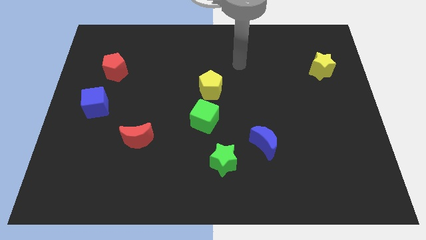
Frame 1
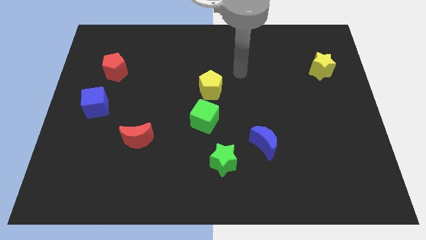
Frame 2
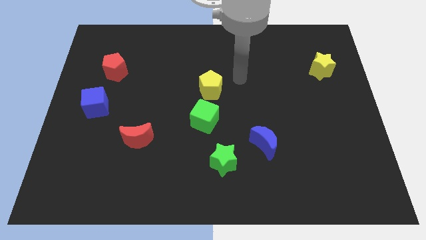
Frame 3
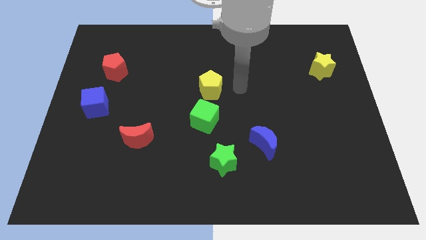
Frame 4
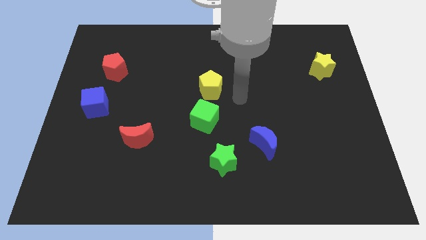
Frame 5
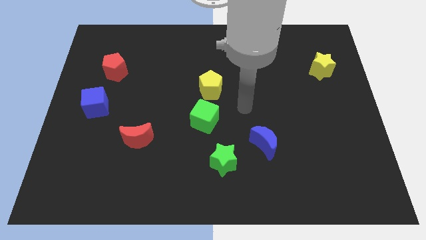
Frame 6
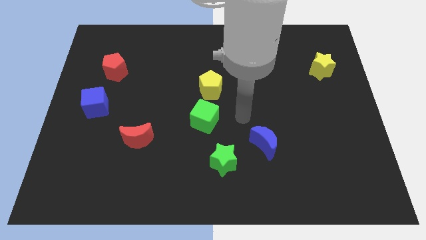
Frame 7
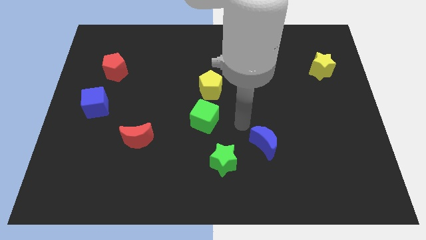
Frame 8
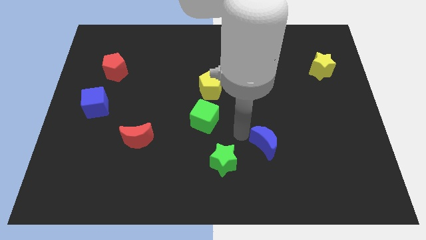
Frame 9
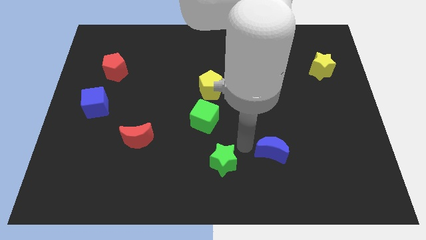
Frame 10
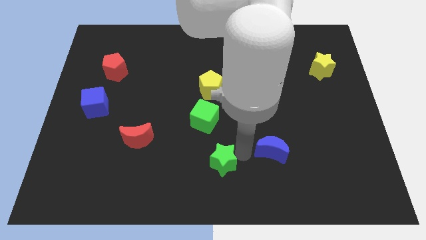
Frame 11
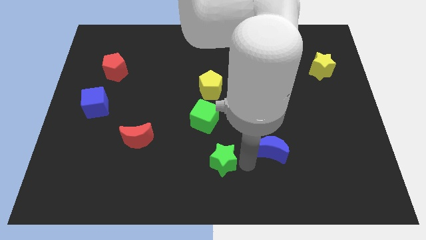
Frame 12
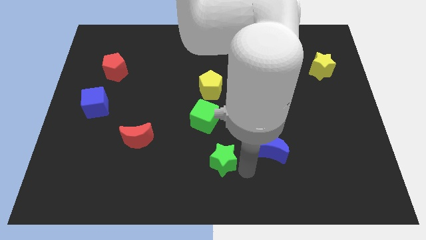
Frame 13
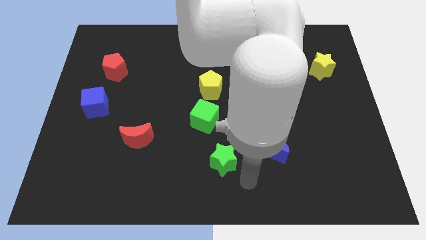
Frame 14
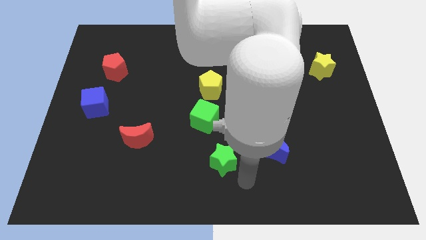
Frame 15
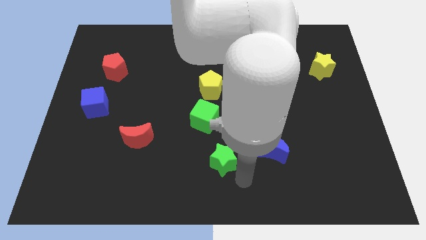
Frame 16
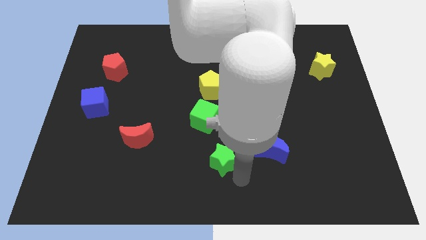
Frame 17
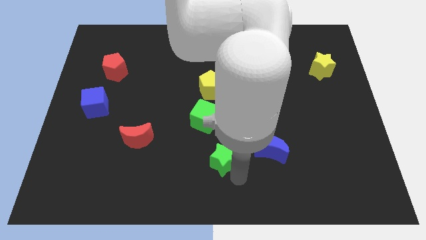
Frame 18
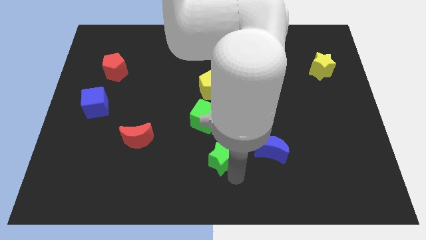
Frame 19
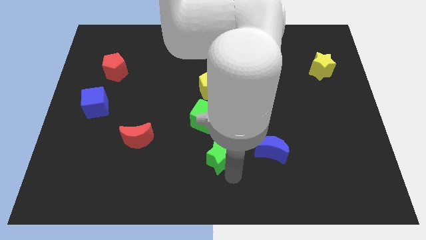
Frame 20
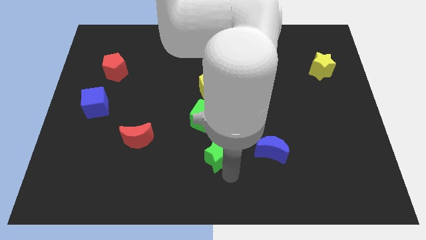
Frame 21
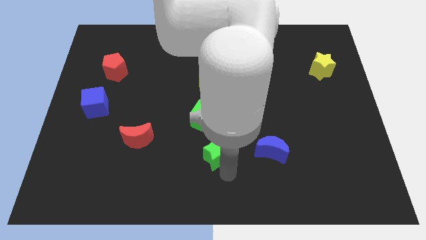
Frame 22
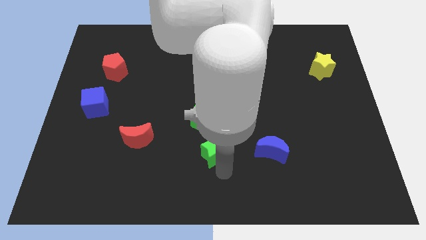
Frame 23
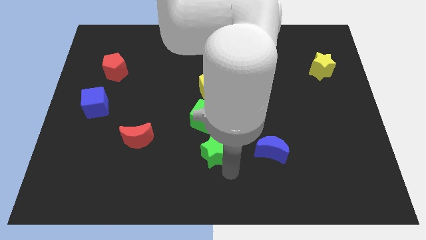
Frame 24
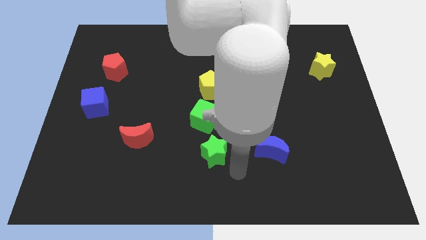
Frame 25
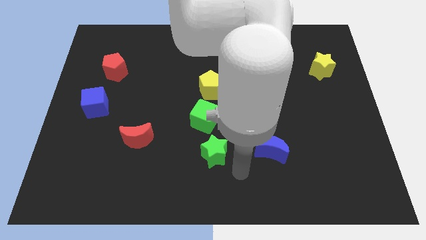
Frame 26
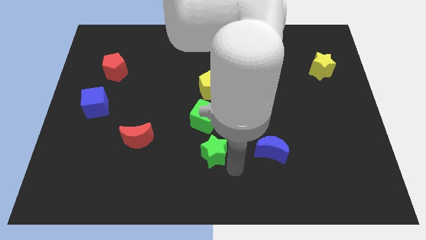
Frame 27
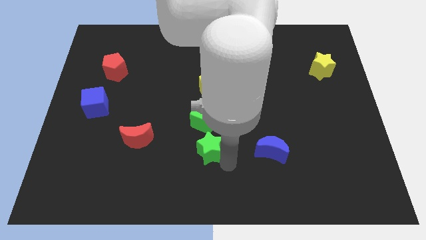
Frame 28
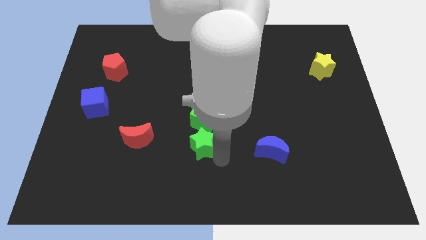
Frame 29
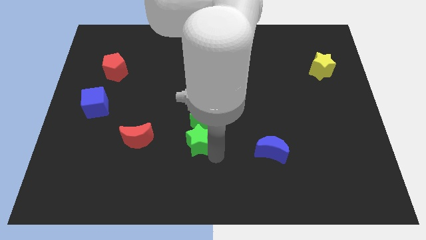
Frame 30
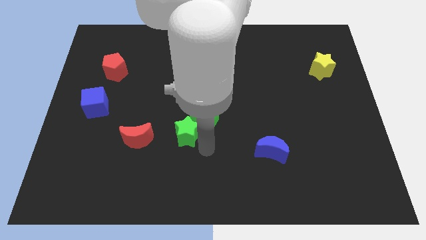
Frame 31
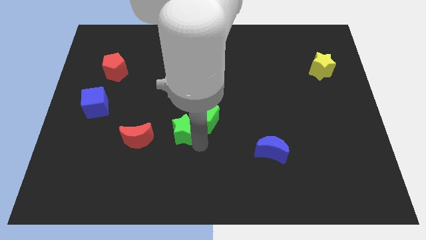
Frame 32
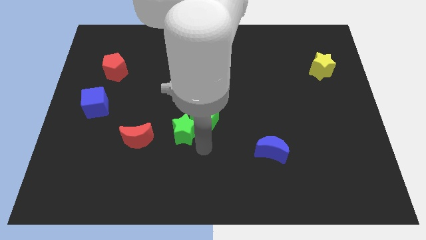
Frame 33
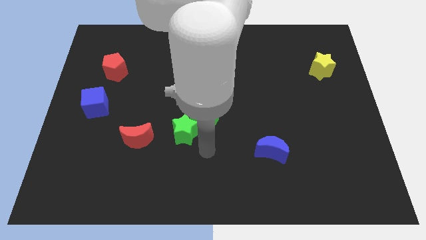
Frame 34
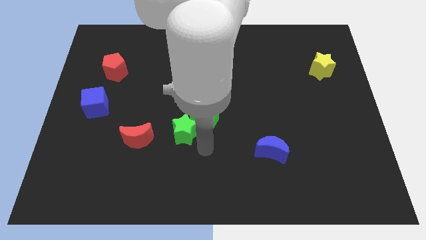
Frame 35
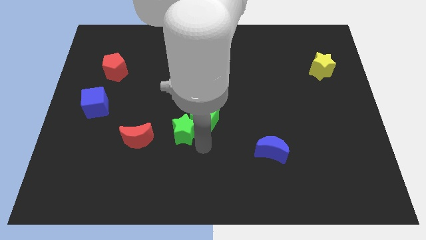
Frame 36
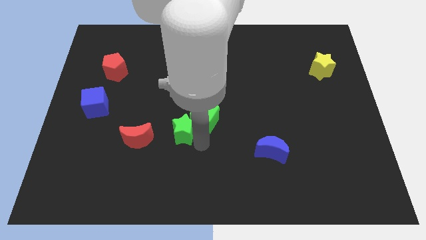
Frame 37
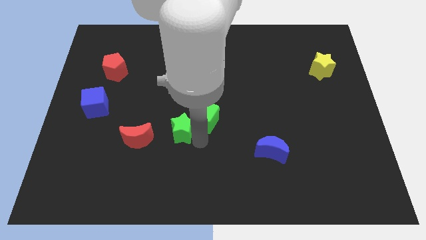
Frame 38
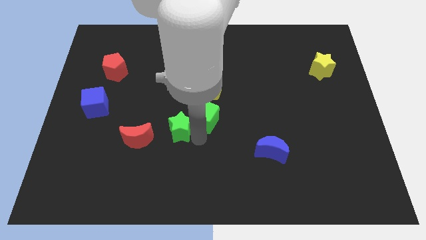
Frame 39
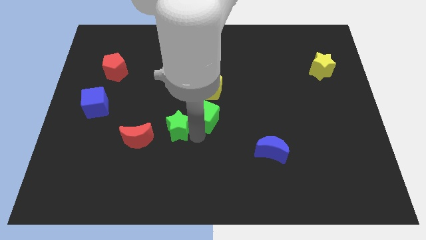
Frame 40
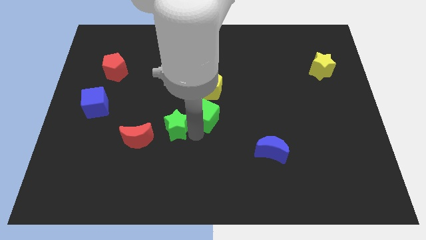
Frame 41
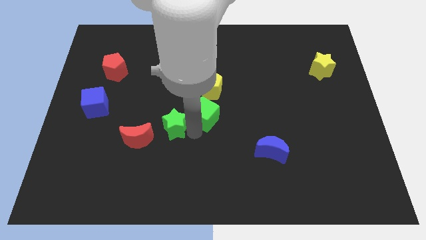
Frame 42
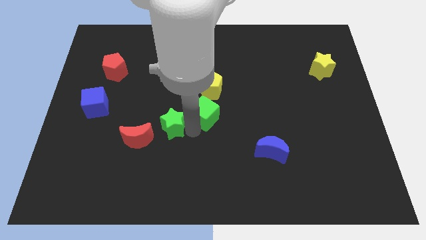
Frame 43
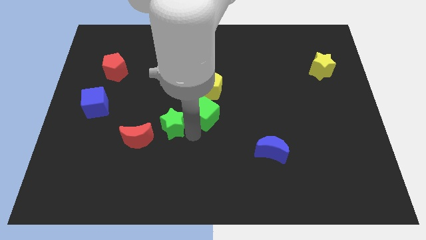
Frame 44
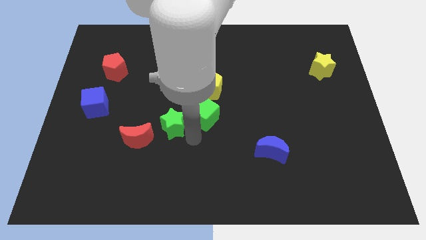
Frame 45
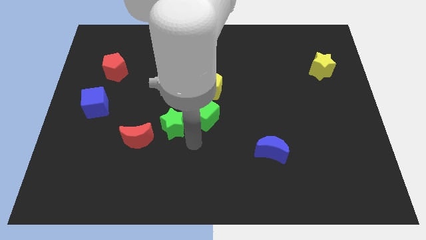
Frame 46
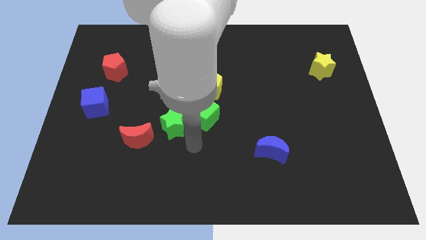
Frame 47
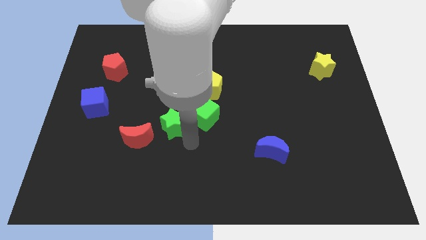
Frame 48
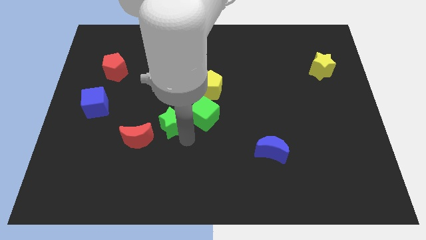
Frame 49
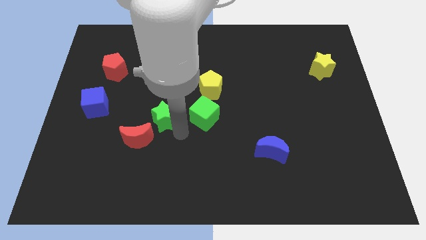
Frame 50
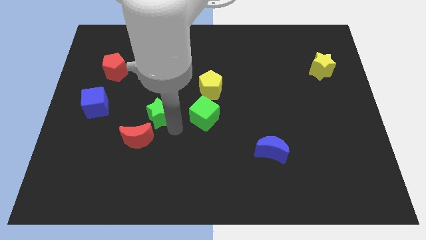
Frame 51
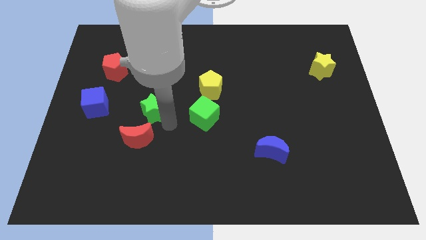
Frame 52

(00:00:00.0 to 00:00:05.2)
push the green star up and then left

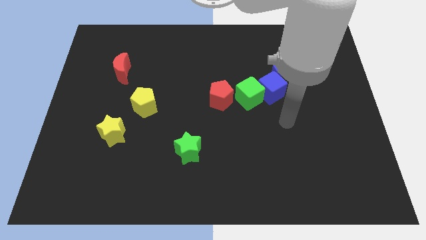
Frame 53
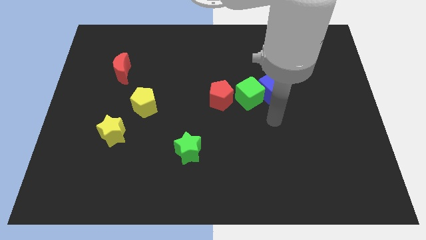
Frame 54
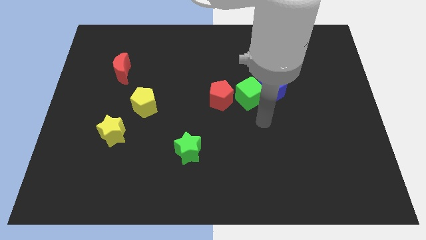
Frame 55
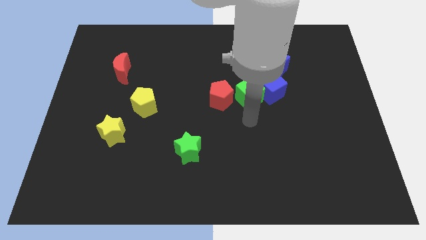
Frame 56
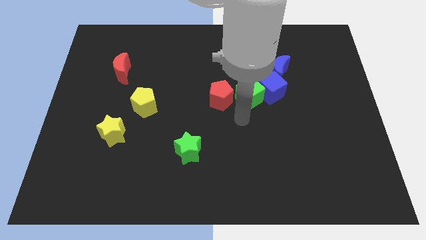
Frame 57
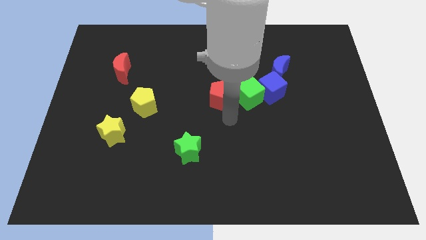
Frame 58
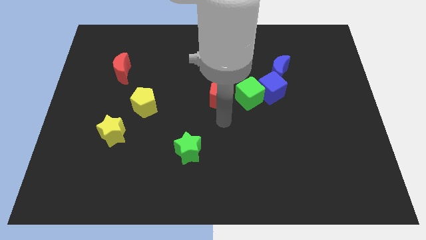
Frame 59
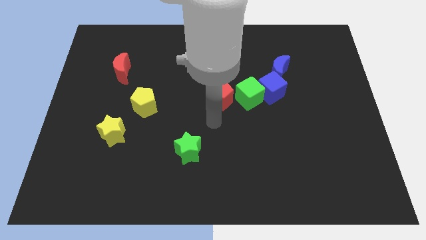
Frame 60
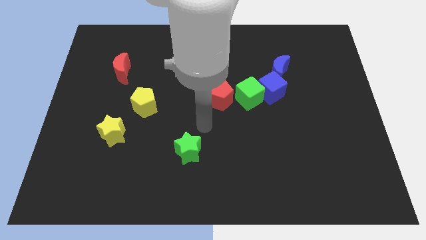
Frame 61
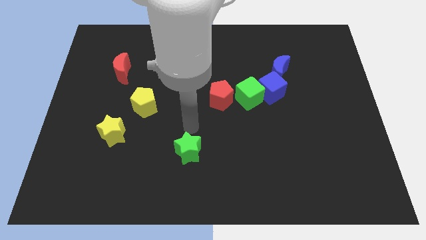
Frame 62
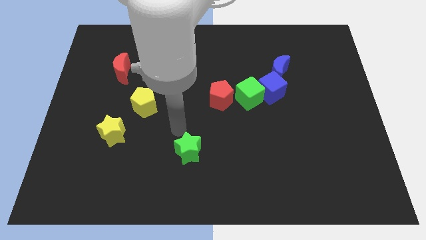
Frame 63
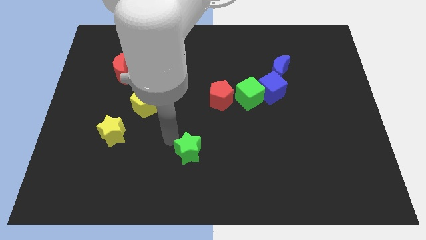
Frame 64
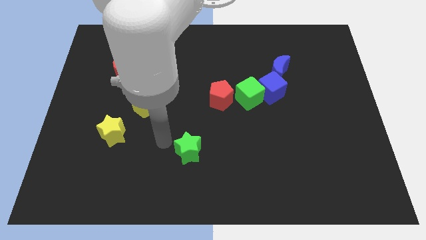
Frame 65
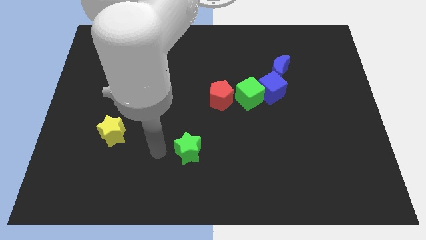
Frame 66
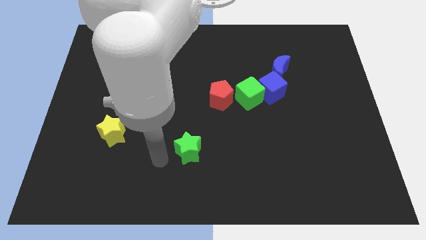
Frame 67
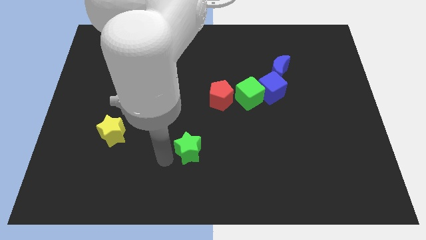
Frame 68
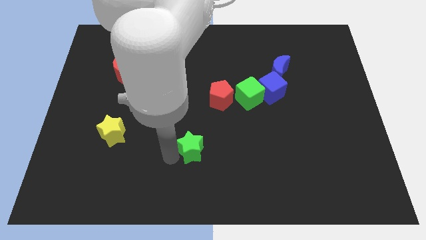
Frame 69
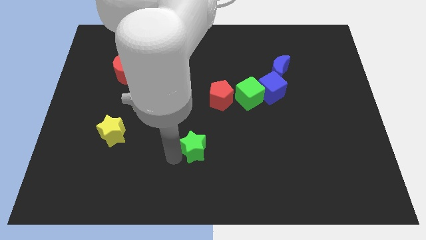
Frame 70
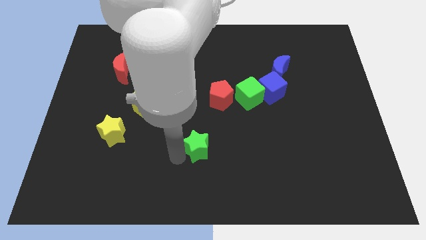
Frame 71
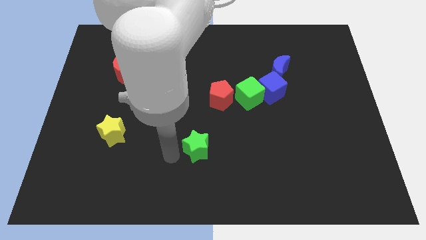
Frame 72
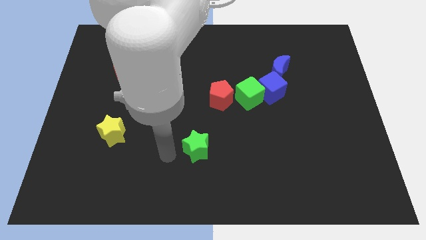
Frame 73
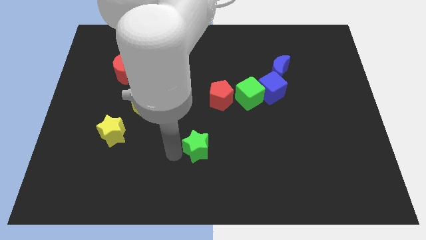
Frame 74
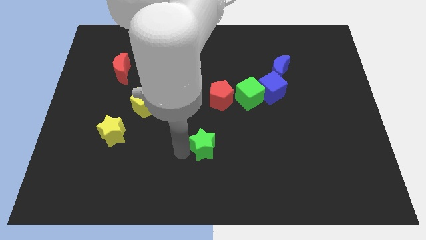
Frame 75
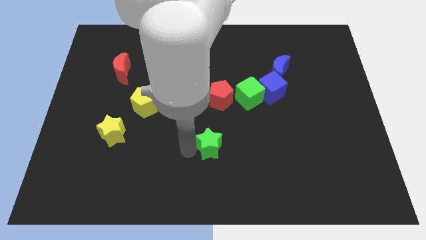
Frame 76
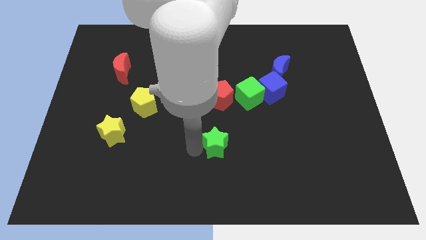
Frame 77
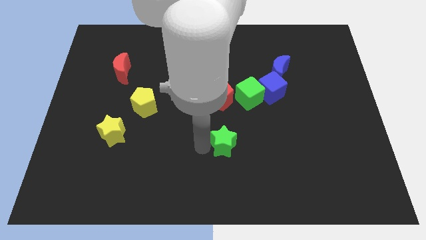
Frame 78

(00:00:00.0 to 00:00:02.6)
move the green star a bit to the right

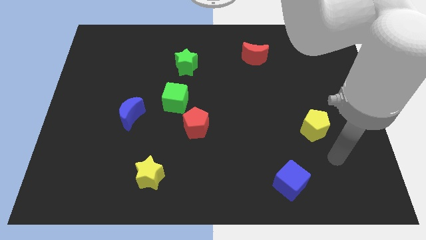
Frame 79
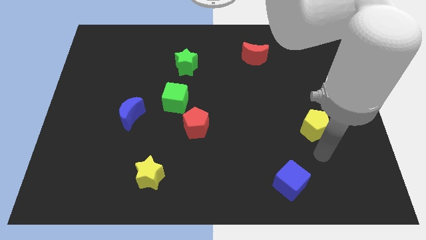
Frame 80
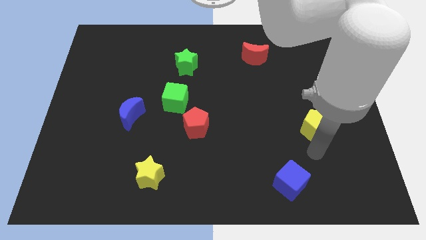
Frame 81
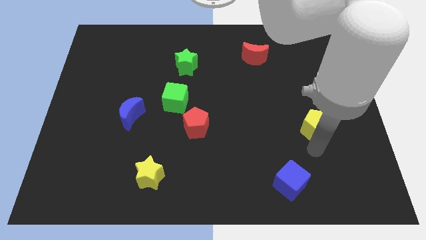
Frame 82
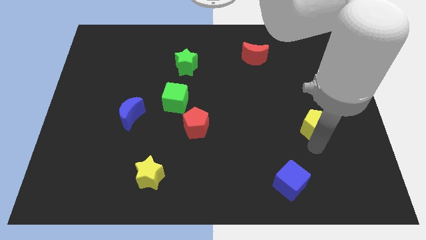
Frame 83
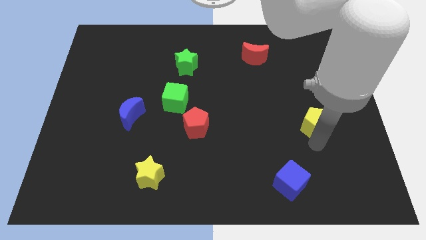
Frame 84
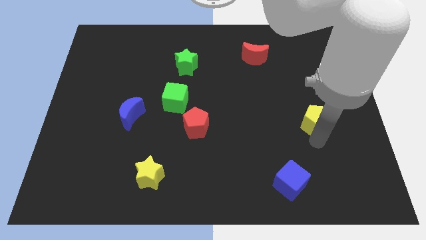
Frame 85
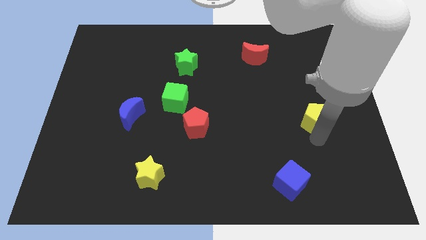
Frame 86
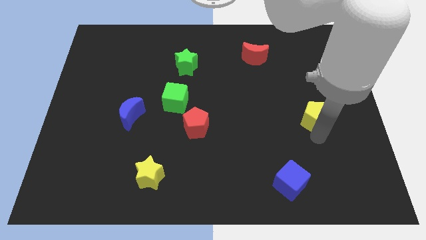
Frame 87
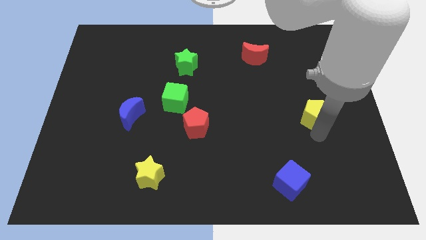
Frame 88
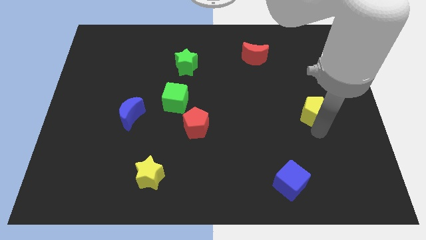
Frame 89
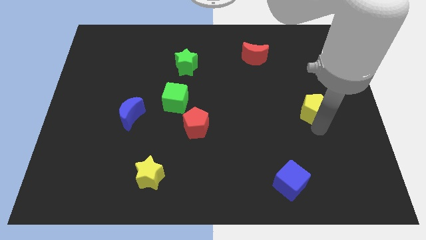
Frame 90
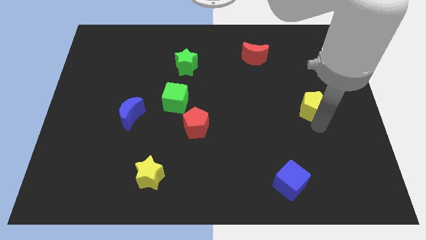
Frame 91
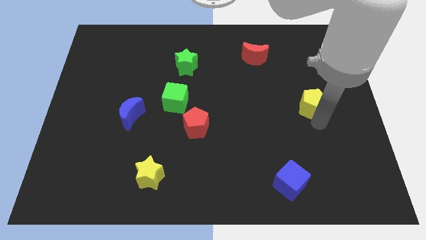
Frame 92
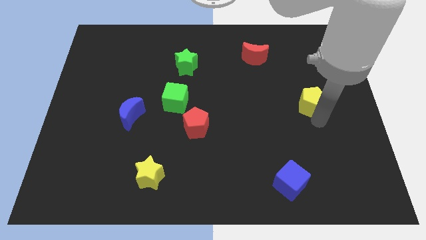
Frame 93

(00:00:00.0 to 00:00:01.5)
slightly move the yellow pentagon up
